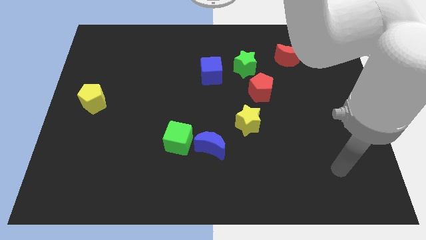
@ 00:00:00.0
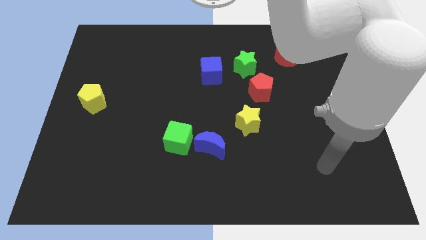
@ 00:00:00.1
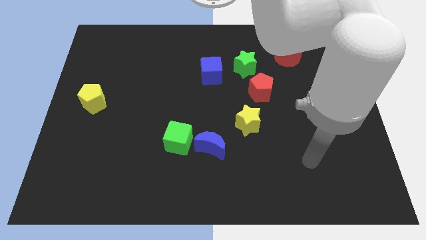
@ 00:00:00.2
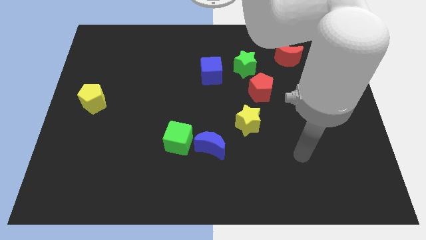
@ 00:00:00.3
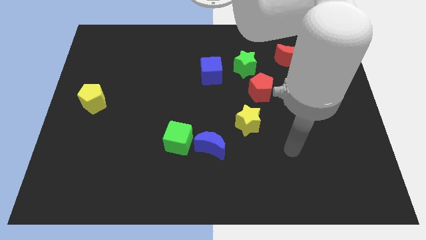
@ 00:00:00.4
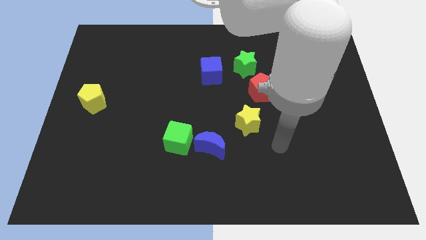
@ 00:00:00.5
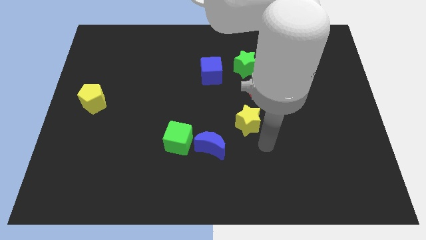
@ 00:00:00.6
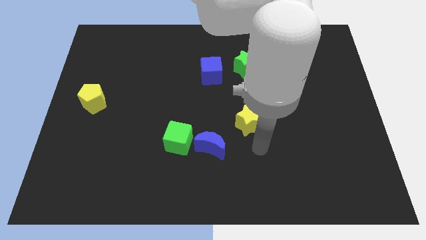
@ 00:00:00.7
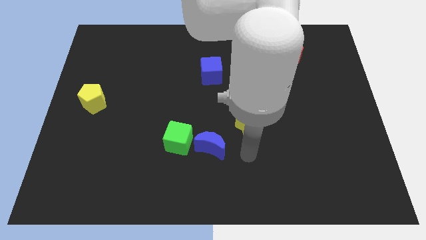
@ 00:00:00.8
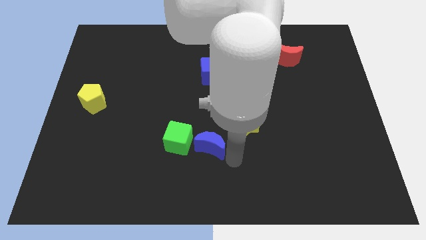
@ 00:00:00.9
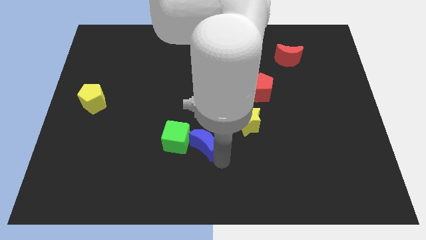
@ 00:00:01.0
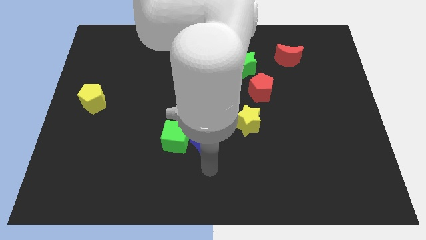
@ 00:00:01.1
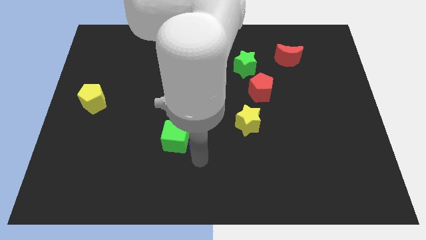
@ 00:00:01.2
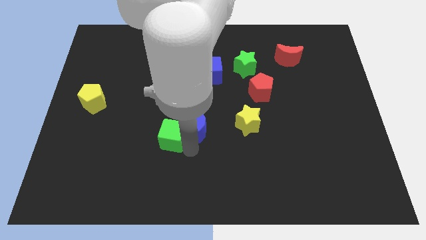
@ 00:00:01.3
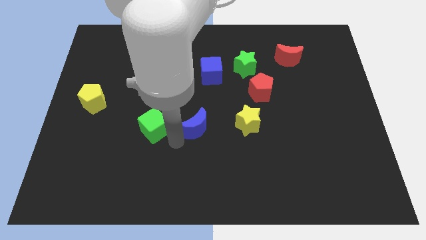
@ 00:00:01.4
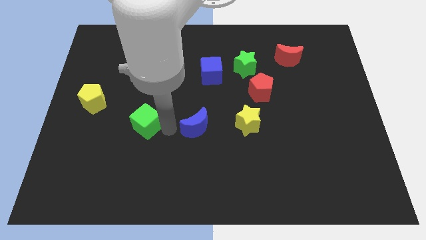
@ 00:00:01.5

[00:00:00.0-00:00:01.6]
move the blue moon away from the green cube

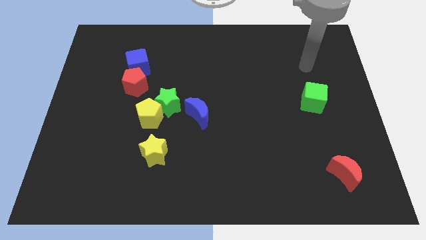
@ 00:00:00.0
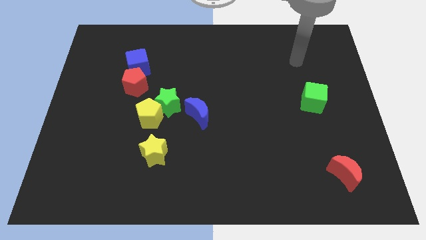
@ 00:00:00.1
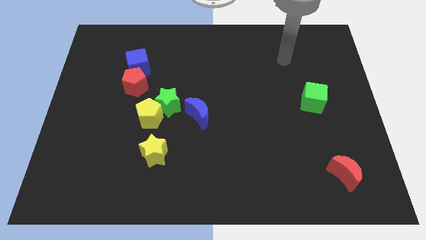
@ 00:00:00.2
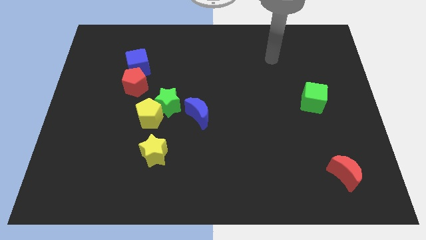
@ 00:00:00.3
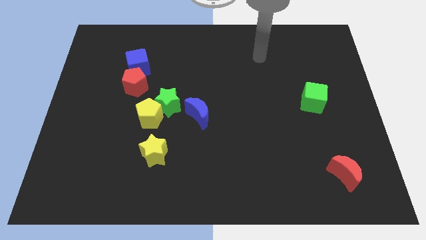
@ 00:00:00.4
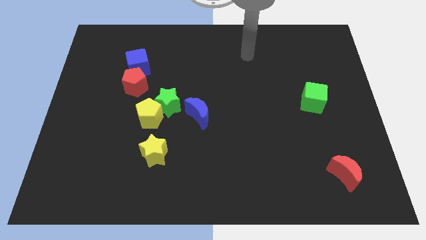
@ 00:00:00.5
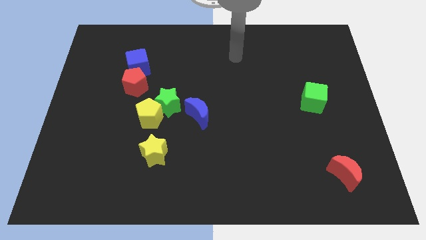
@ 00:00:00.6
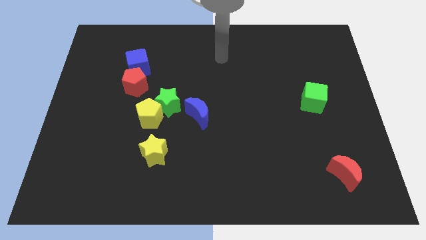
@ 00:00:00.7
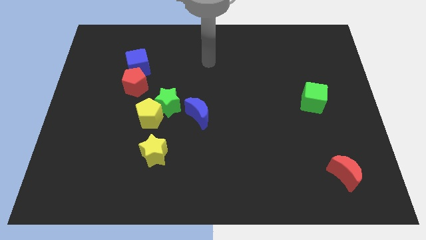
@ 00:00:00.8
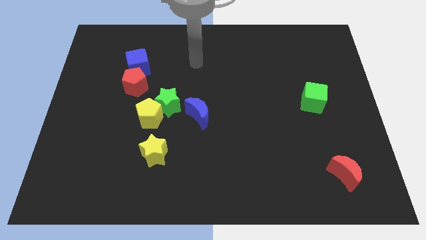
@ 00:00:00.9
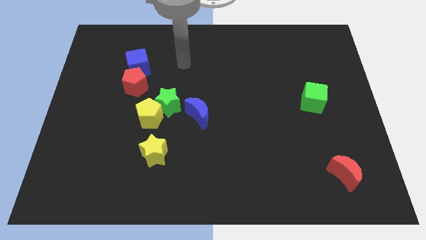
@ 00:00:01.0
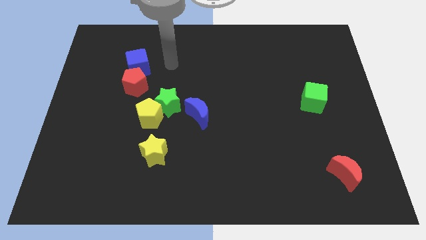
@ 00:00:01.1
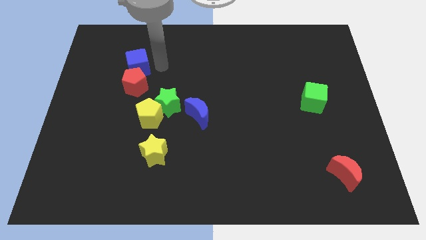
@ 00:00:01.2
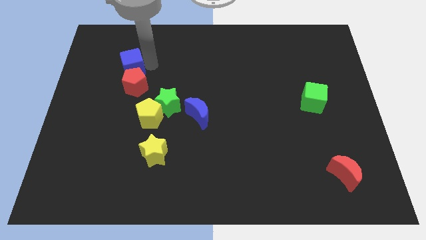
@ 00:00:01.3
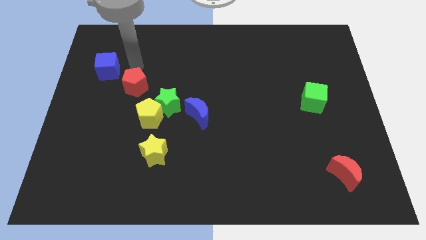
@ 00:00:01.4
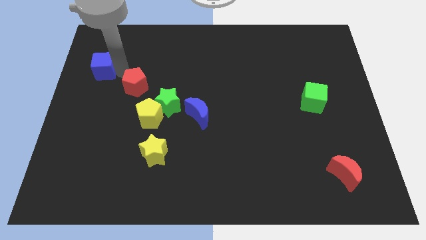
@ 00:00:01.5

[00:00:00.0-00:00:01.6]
move the red pentagon away from the blue cube

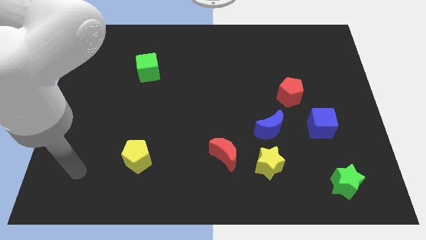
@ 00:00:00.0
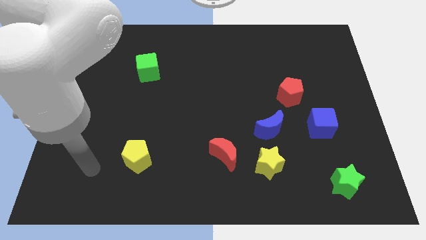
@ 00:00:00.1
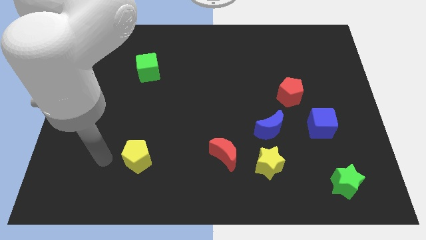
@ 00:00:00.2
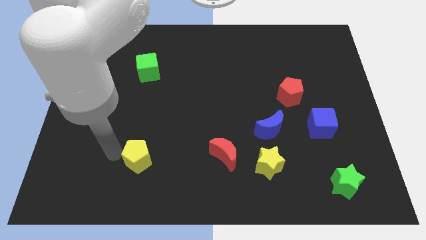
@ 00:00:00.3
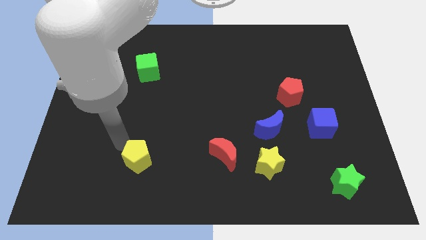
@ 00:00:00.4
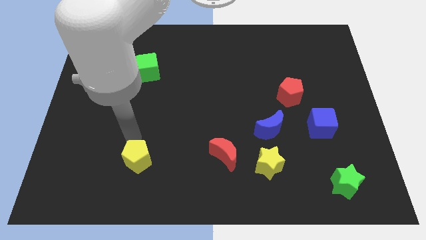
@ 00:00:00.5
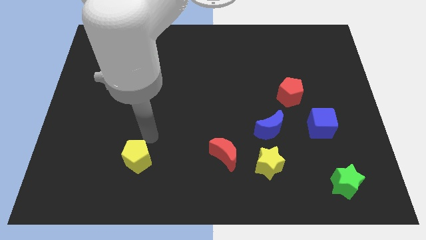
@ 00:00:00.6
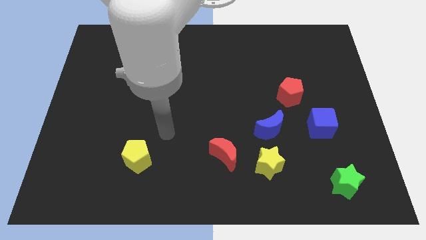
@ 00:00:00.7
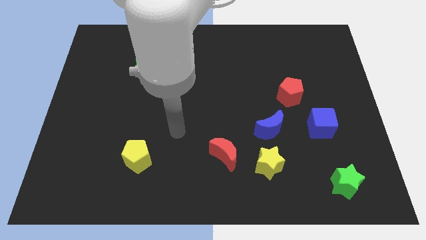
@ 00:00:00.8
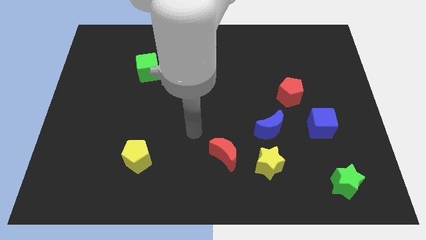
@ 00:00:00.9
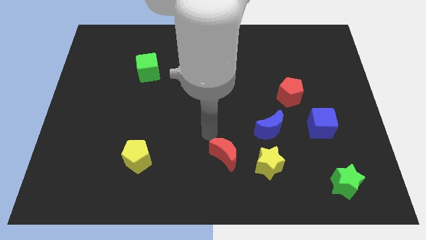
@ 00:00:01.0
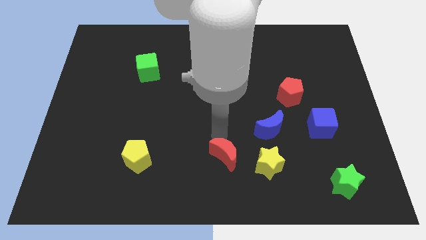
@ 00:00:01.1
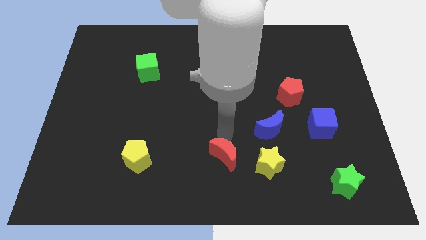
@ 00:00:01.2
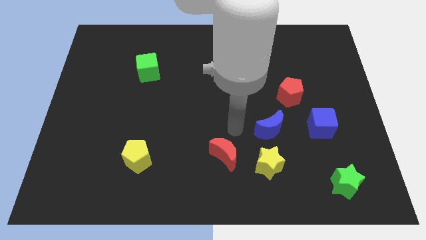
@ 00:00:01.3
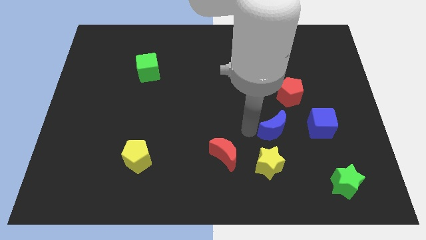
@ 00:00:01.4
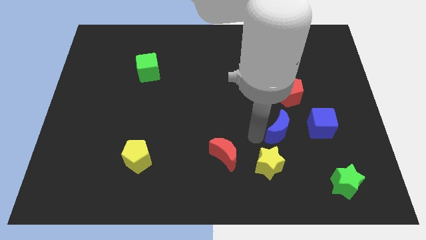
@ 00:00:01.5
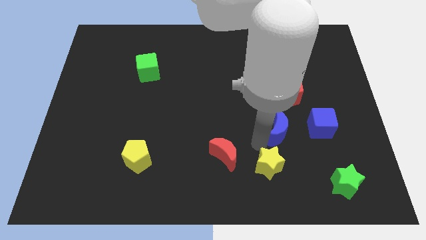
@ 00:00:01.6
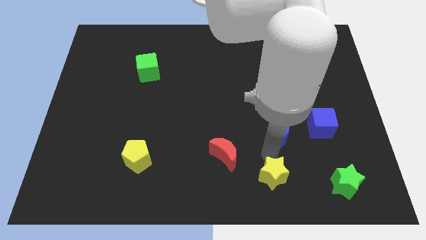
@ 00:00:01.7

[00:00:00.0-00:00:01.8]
separate the blue moon from the yellow star

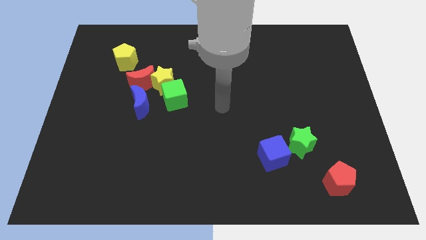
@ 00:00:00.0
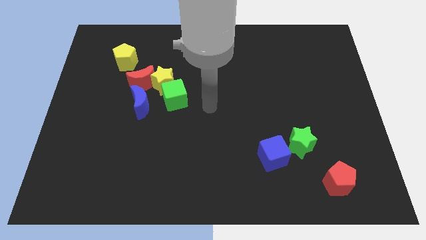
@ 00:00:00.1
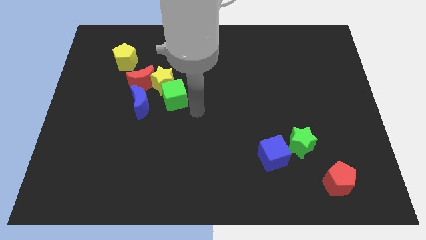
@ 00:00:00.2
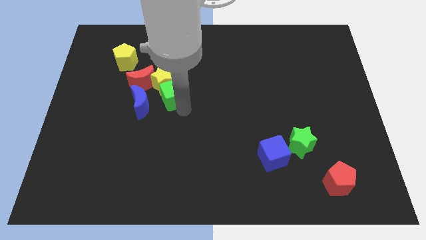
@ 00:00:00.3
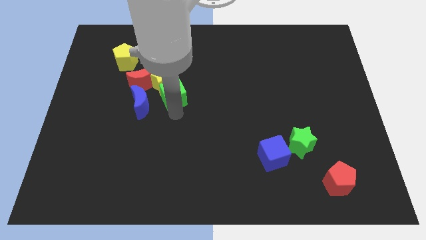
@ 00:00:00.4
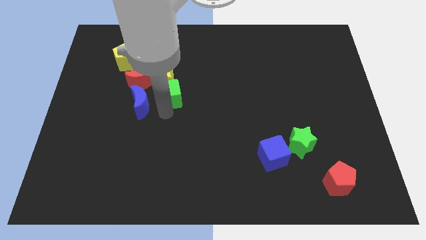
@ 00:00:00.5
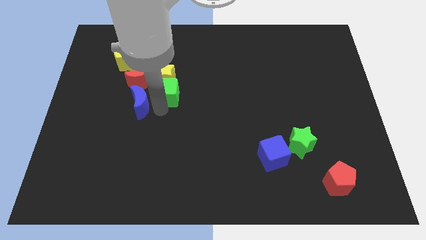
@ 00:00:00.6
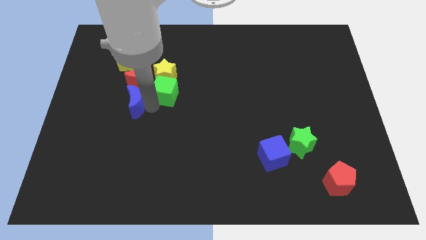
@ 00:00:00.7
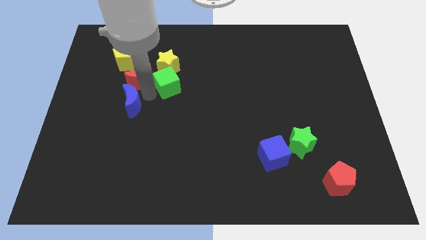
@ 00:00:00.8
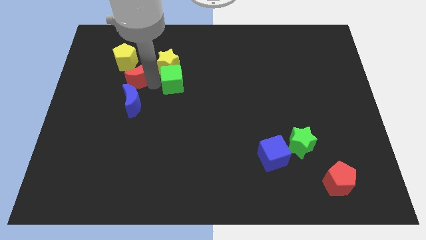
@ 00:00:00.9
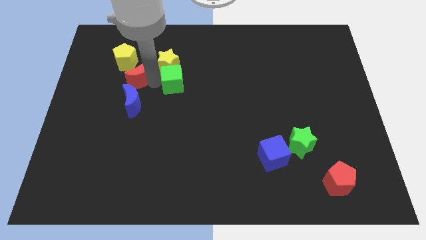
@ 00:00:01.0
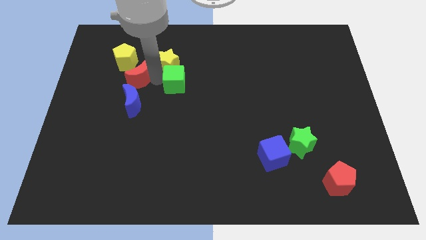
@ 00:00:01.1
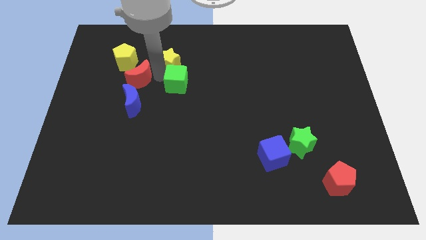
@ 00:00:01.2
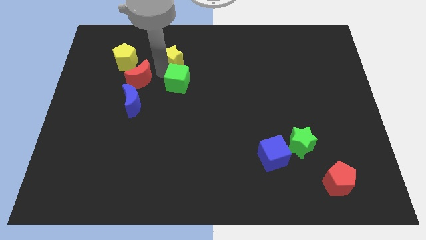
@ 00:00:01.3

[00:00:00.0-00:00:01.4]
move the yellow star away from the red moon, green cube, and blue moon

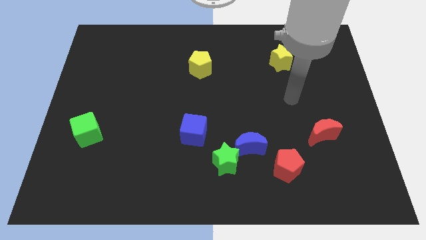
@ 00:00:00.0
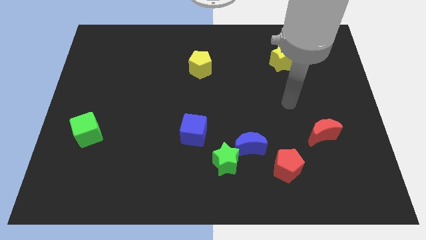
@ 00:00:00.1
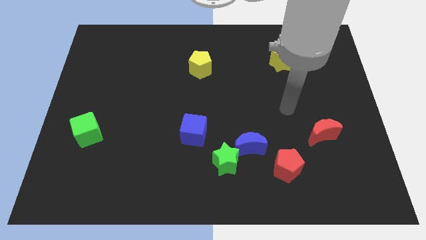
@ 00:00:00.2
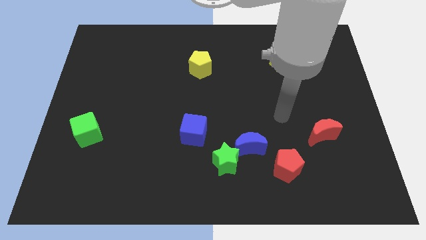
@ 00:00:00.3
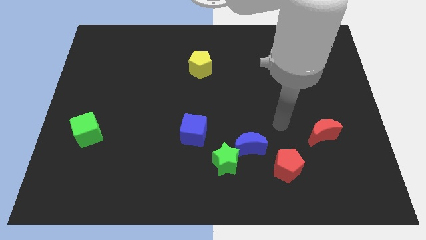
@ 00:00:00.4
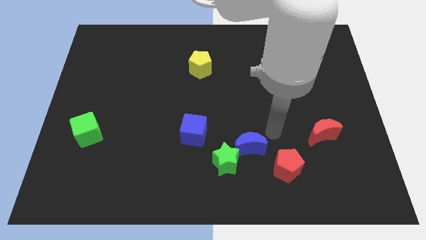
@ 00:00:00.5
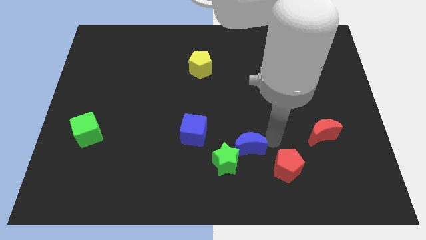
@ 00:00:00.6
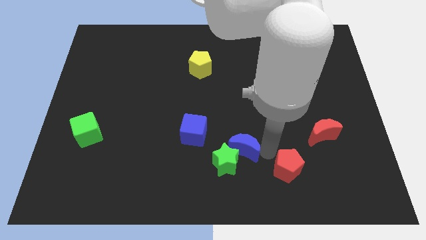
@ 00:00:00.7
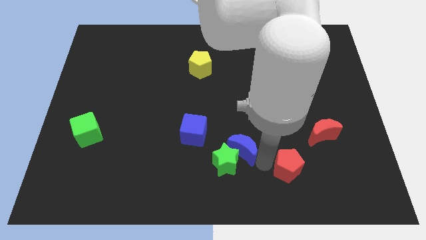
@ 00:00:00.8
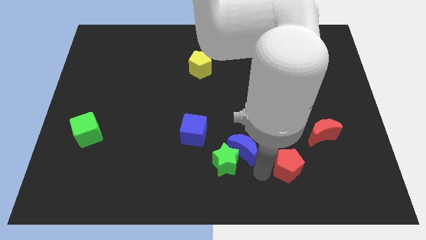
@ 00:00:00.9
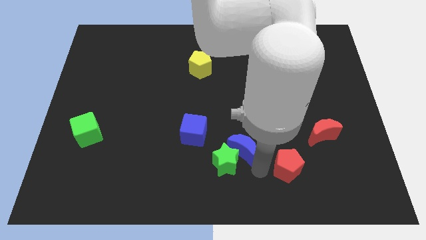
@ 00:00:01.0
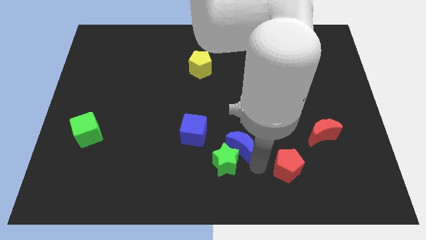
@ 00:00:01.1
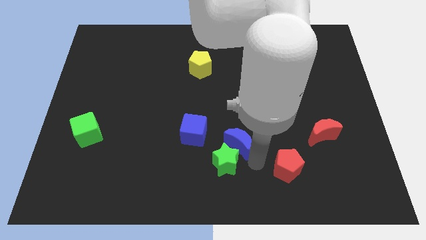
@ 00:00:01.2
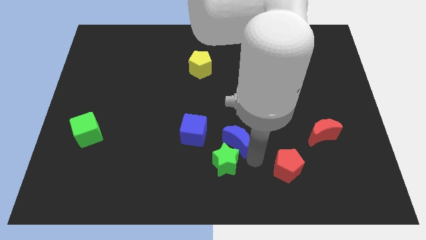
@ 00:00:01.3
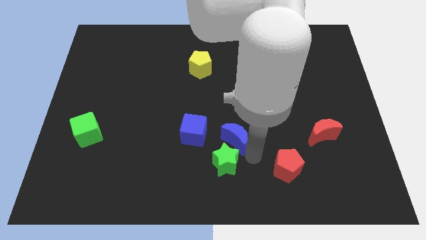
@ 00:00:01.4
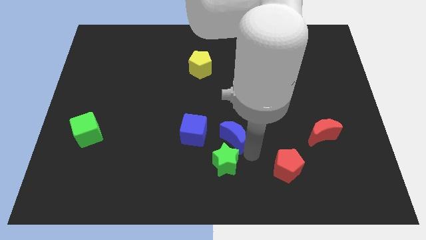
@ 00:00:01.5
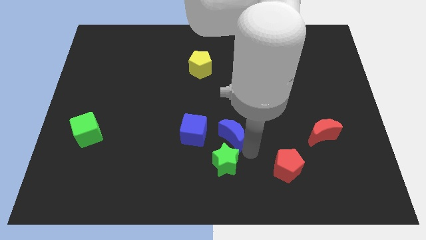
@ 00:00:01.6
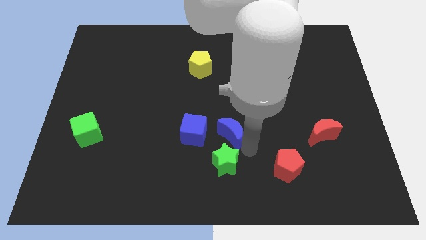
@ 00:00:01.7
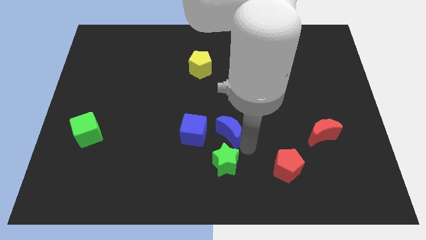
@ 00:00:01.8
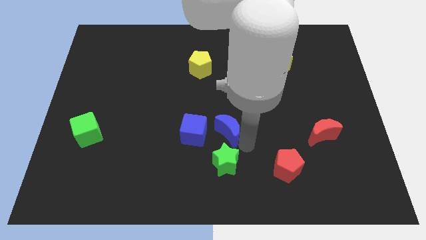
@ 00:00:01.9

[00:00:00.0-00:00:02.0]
separate the blue moon from the green star and red pentagon

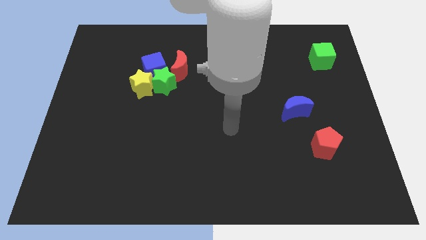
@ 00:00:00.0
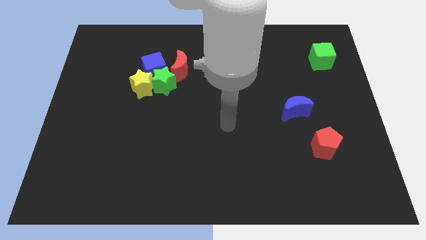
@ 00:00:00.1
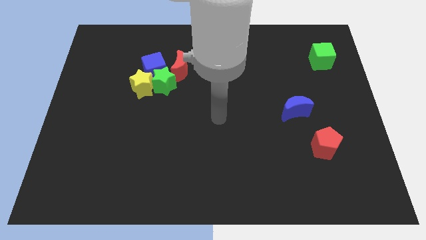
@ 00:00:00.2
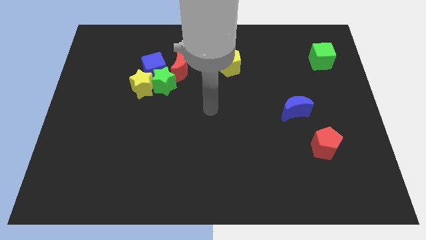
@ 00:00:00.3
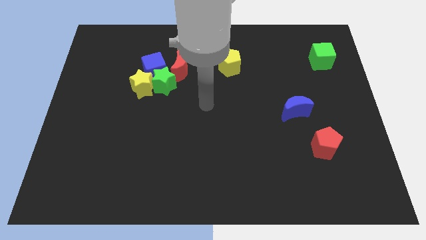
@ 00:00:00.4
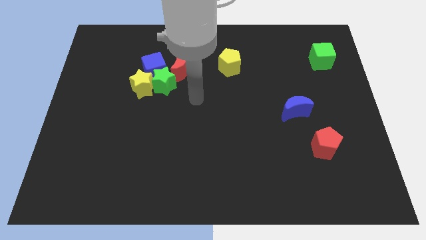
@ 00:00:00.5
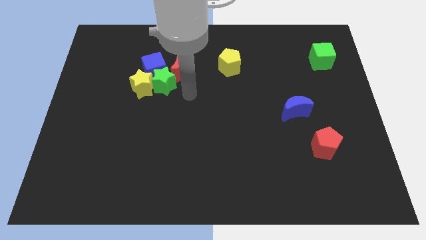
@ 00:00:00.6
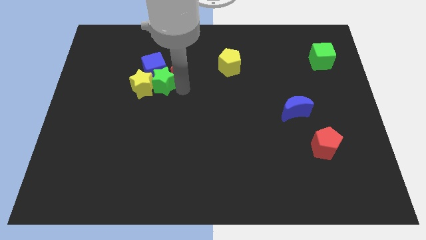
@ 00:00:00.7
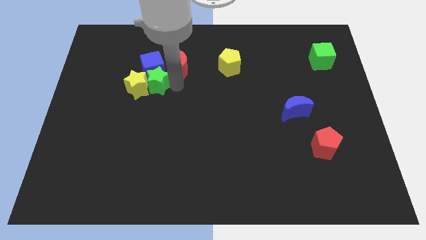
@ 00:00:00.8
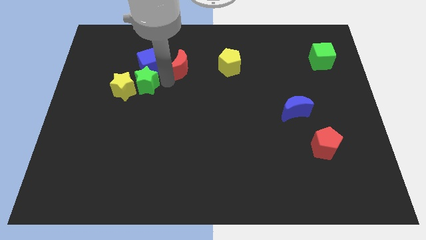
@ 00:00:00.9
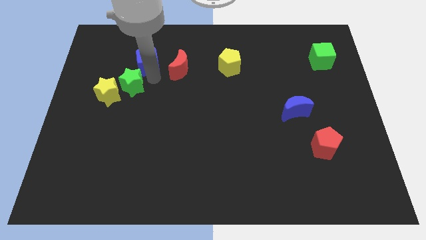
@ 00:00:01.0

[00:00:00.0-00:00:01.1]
move the yellow star away from the green star and blue cube
